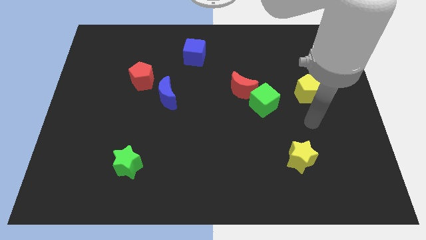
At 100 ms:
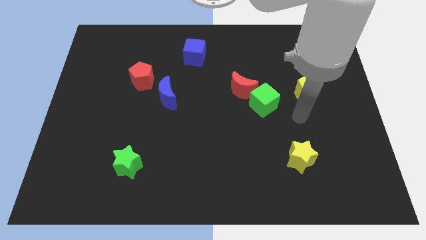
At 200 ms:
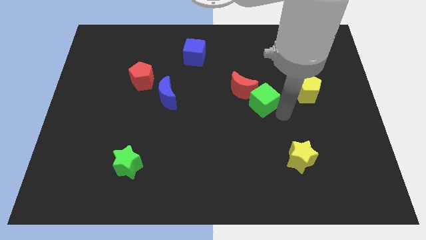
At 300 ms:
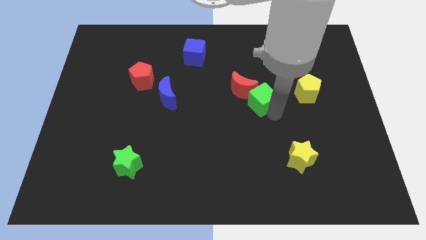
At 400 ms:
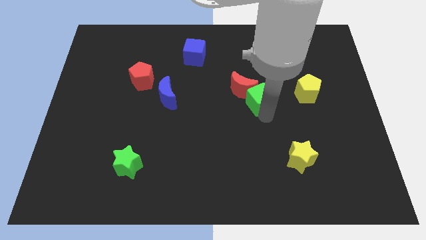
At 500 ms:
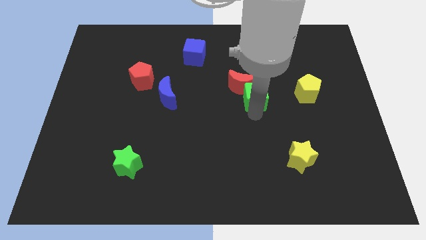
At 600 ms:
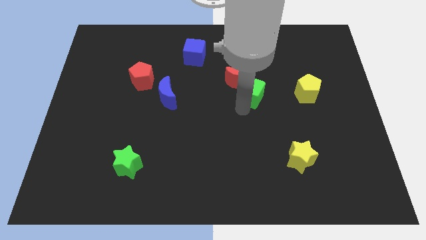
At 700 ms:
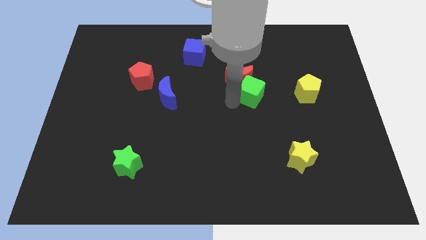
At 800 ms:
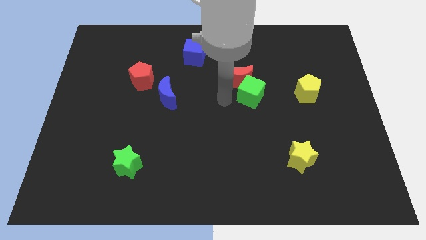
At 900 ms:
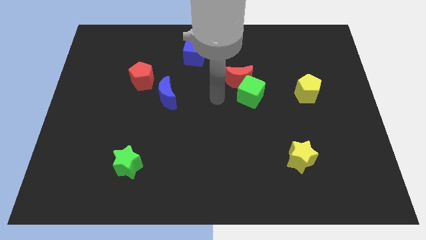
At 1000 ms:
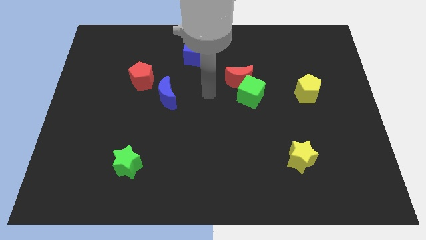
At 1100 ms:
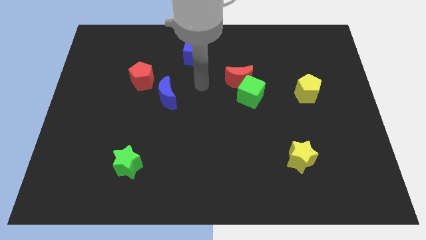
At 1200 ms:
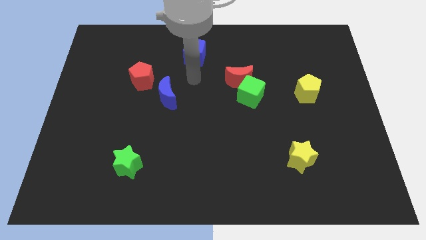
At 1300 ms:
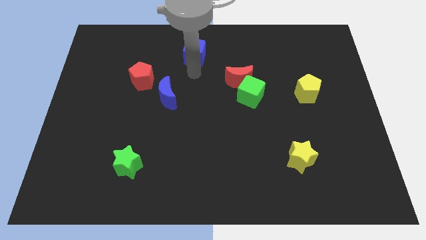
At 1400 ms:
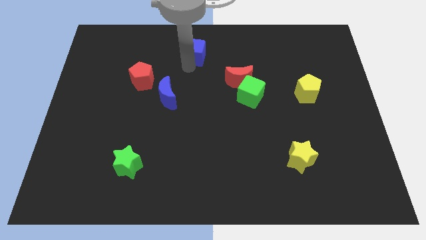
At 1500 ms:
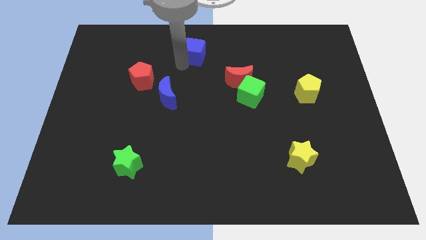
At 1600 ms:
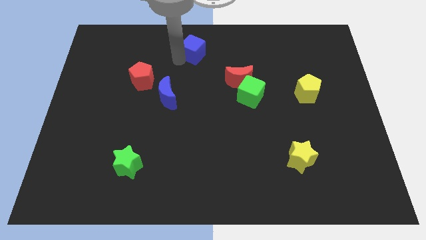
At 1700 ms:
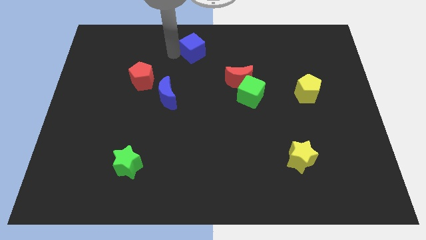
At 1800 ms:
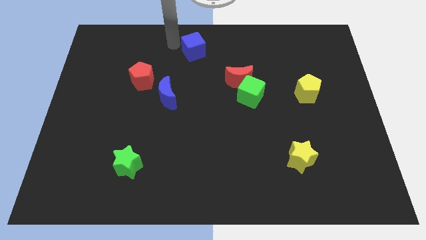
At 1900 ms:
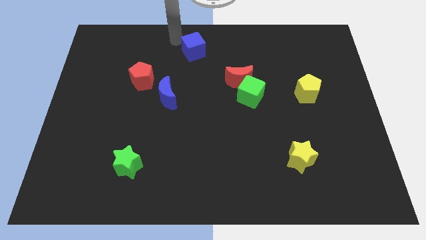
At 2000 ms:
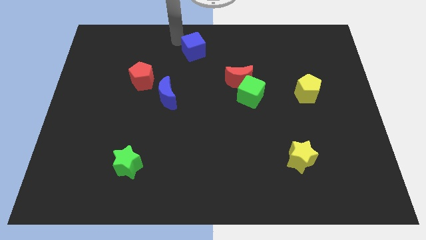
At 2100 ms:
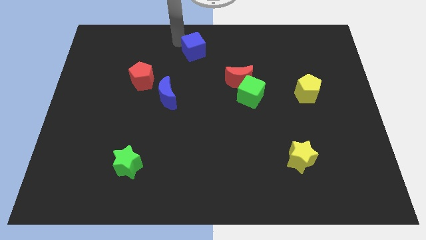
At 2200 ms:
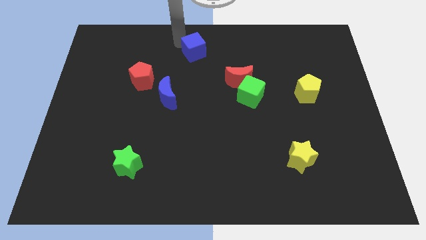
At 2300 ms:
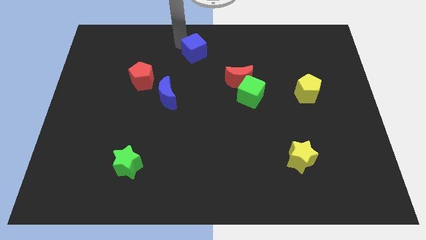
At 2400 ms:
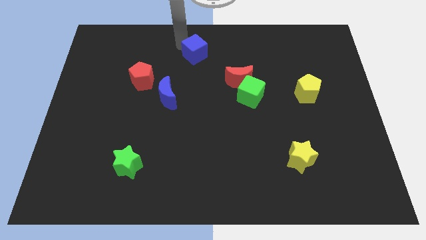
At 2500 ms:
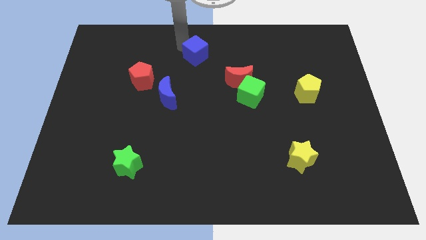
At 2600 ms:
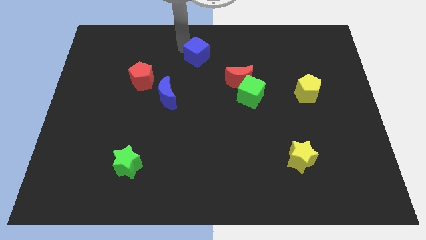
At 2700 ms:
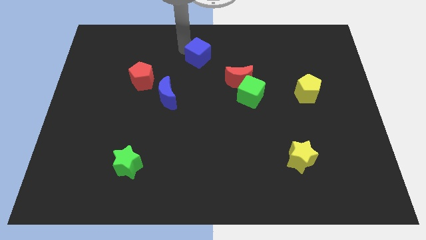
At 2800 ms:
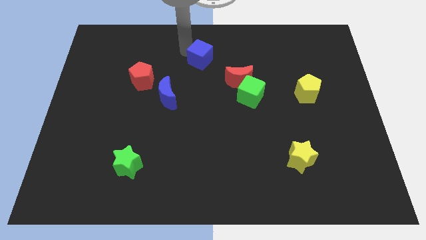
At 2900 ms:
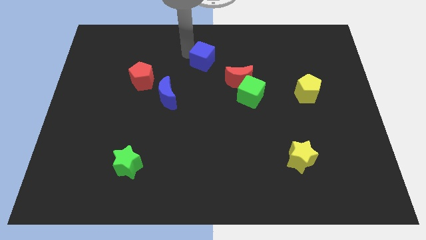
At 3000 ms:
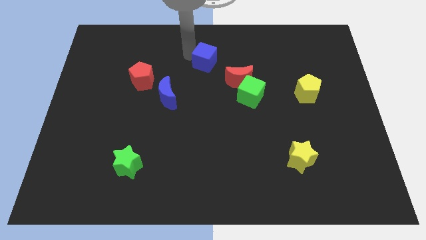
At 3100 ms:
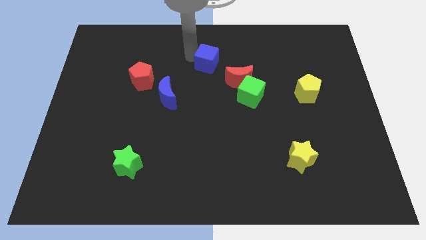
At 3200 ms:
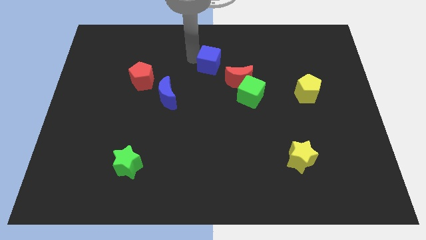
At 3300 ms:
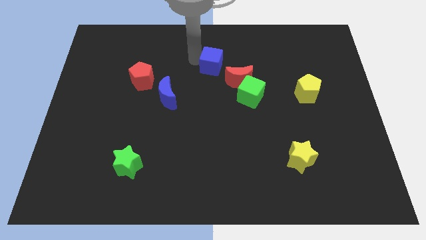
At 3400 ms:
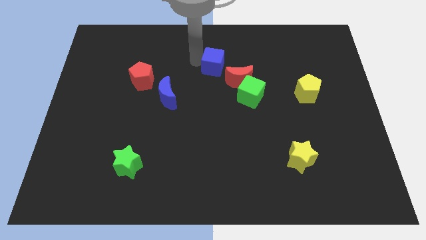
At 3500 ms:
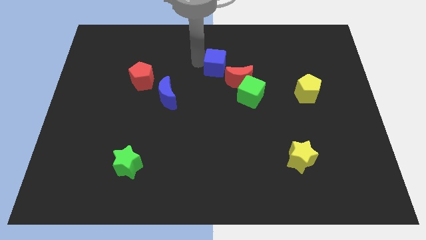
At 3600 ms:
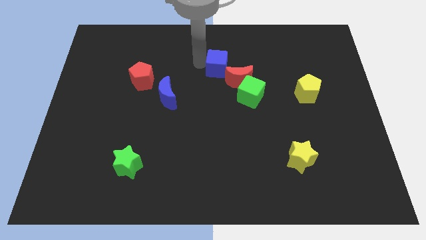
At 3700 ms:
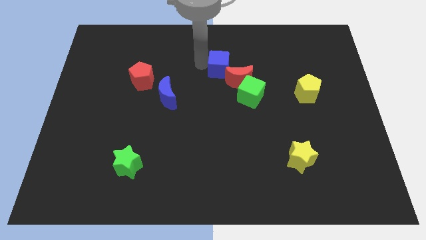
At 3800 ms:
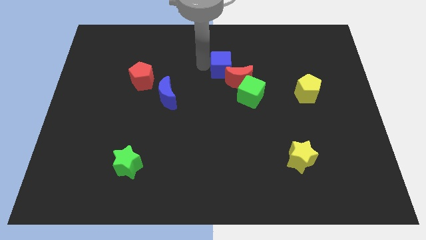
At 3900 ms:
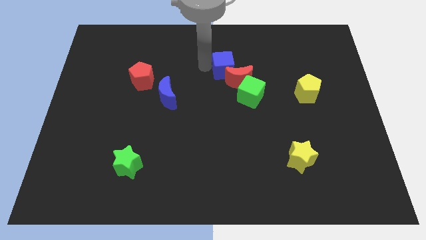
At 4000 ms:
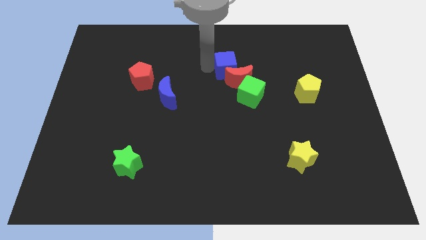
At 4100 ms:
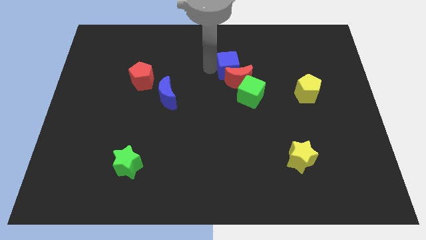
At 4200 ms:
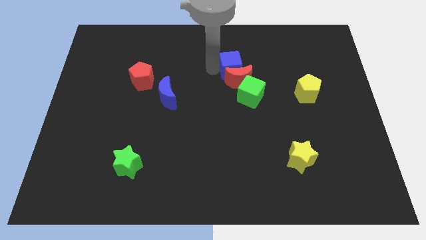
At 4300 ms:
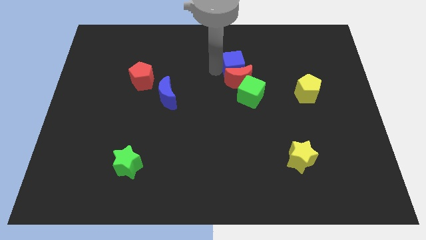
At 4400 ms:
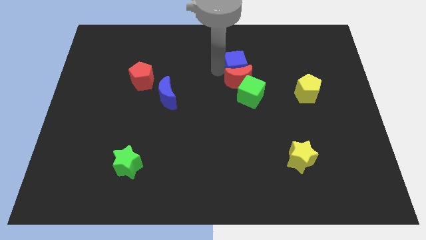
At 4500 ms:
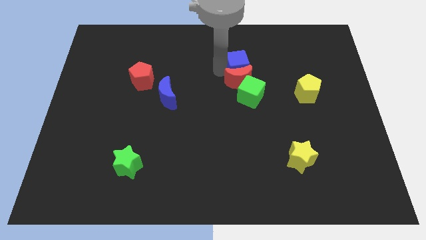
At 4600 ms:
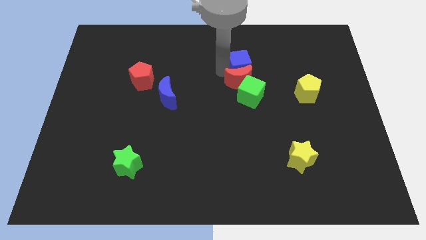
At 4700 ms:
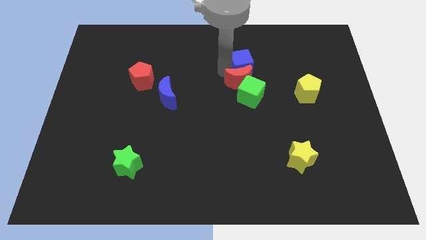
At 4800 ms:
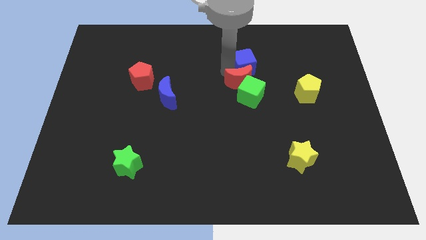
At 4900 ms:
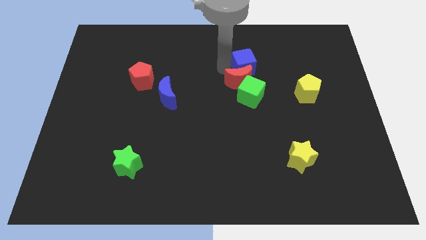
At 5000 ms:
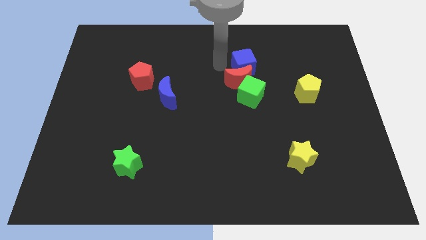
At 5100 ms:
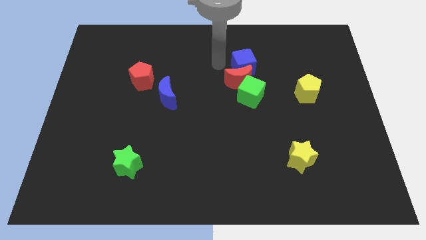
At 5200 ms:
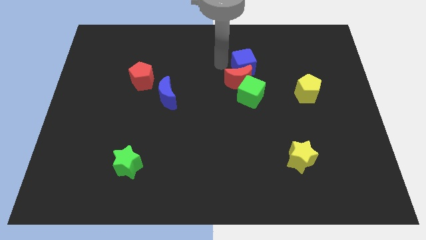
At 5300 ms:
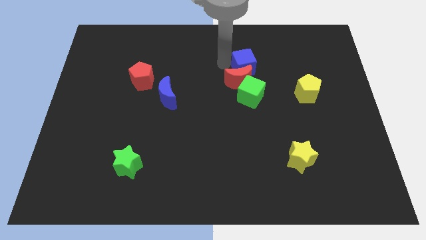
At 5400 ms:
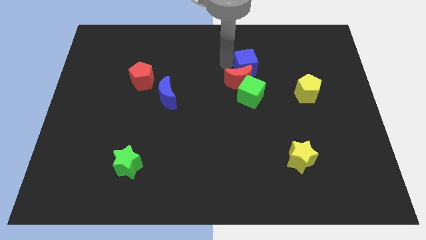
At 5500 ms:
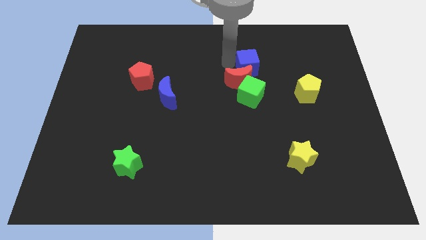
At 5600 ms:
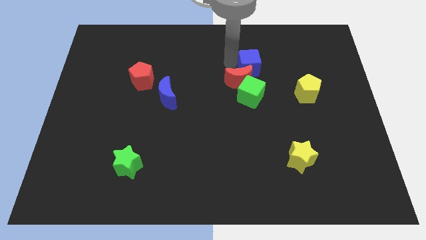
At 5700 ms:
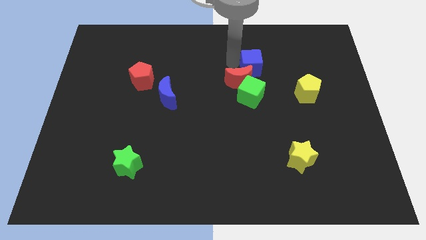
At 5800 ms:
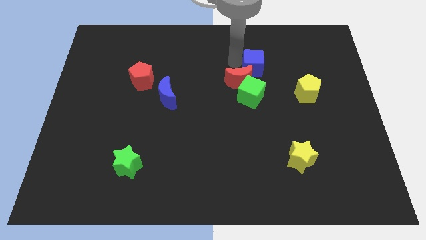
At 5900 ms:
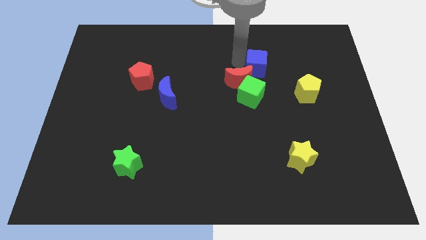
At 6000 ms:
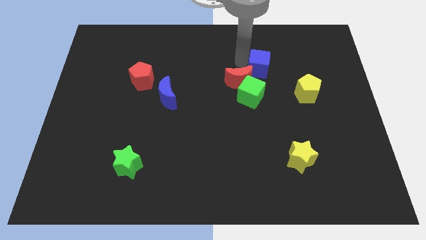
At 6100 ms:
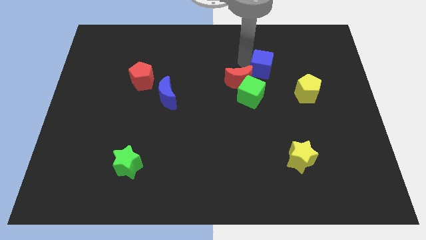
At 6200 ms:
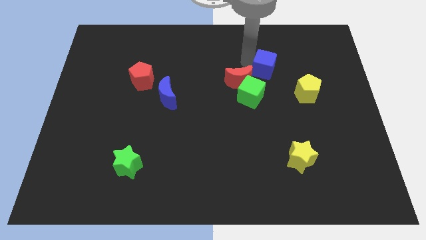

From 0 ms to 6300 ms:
put the blue cube to the top left of the yellow pentagon
